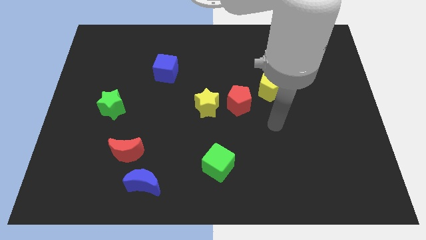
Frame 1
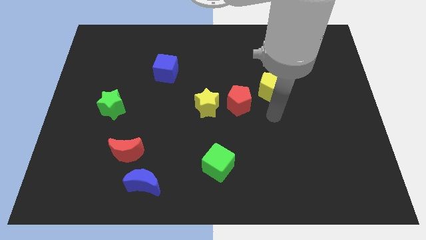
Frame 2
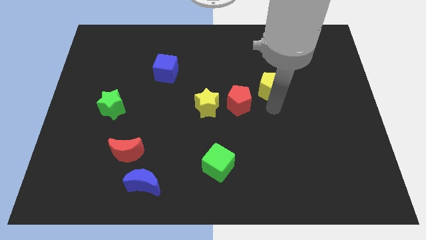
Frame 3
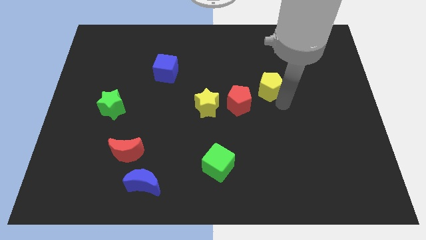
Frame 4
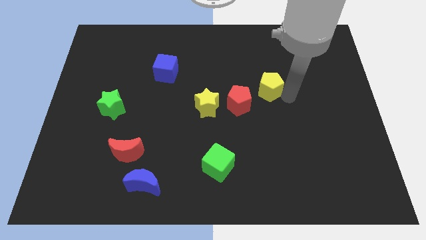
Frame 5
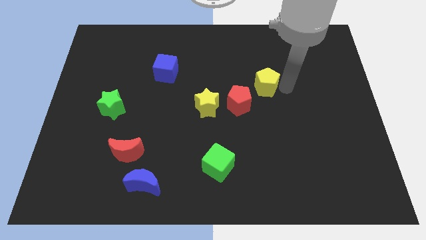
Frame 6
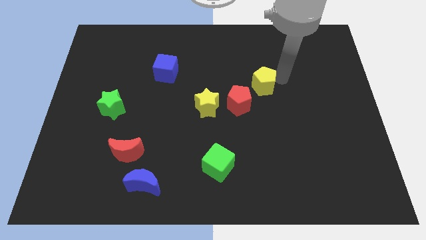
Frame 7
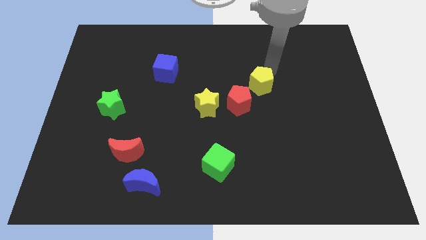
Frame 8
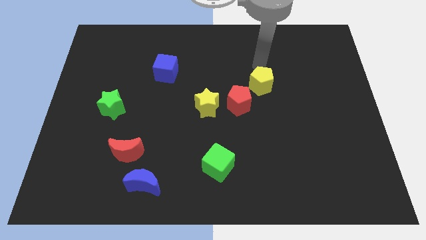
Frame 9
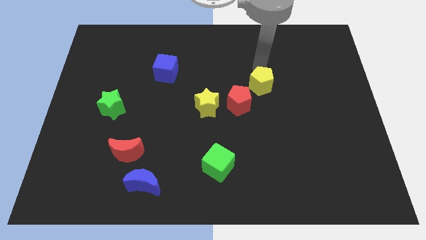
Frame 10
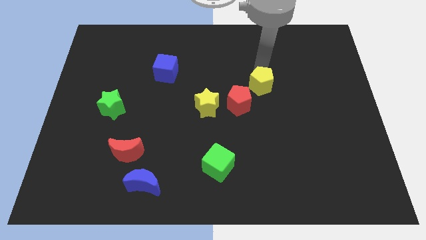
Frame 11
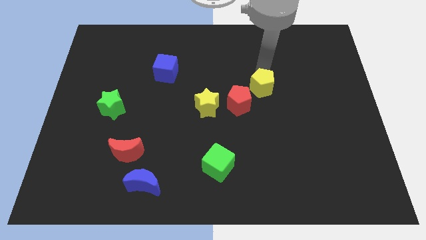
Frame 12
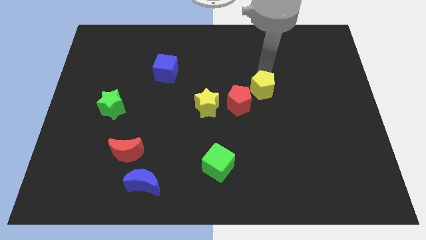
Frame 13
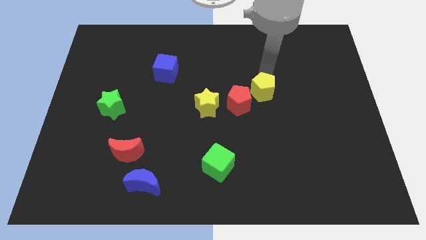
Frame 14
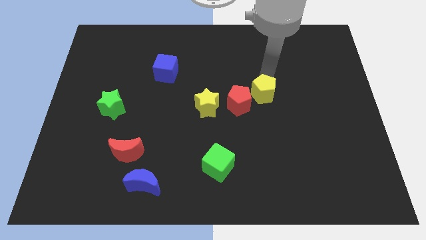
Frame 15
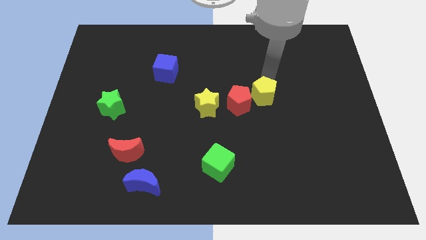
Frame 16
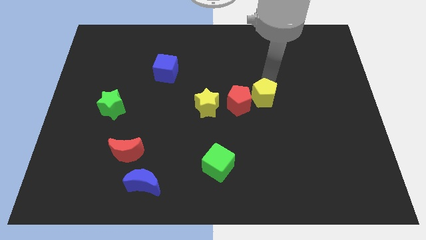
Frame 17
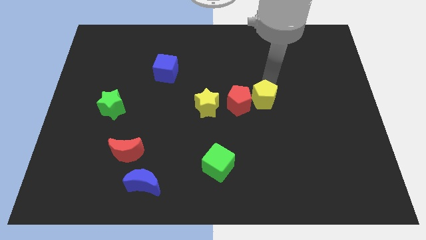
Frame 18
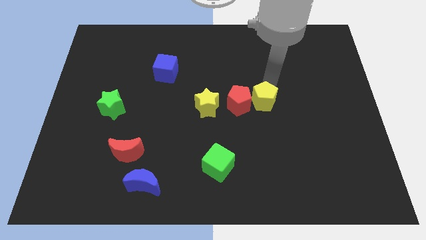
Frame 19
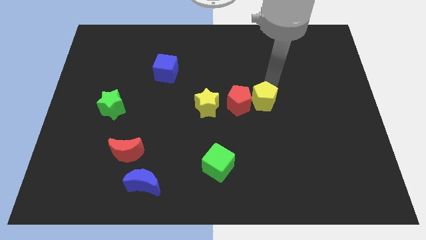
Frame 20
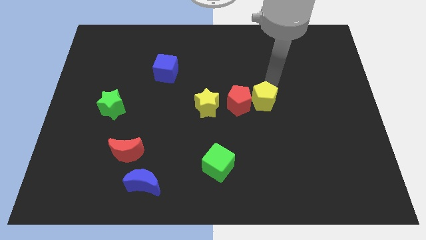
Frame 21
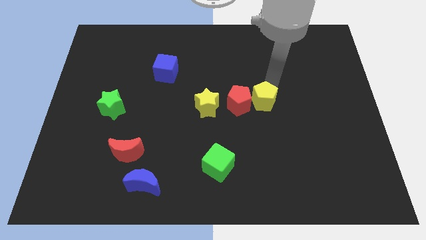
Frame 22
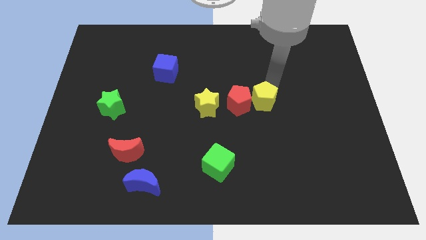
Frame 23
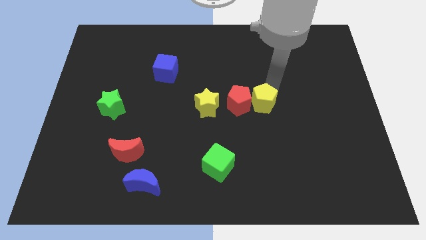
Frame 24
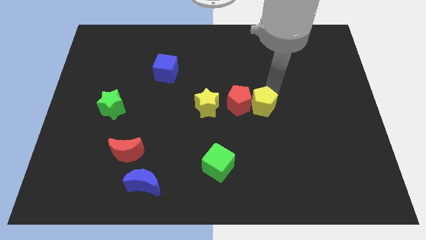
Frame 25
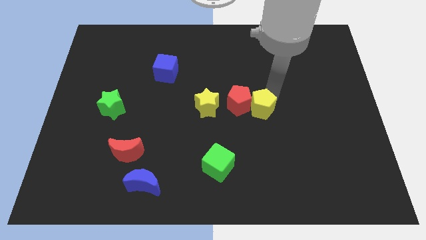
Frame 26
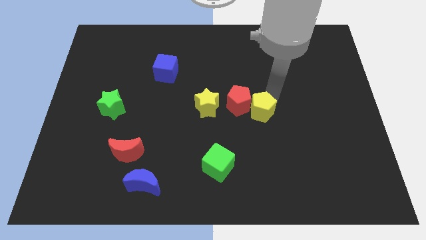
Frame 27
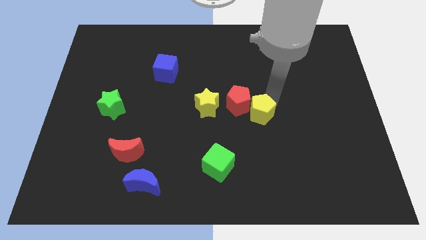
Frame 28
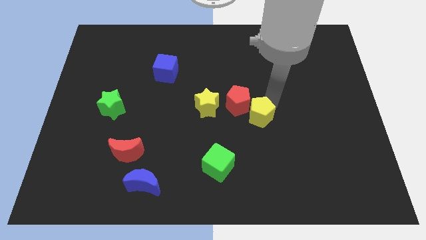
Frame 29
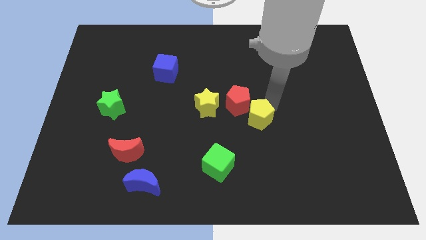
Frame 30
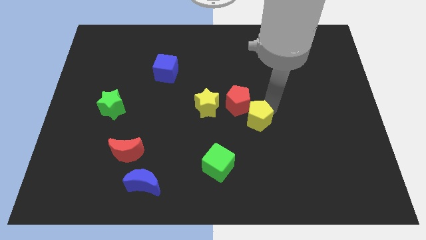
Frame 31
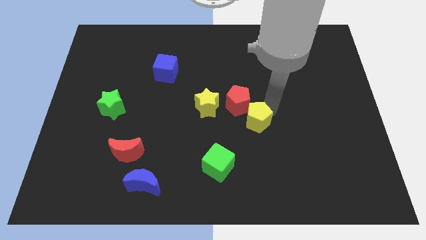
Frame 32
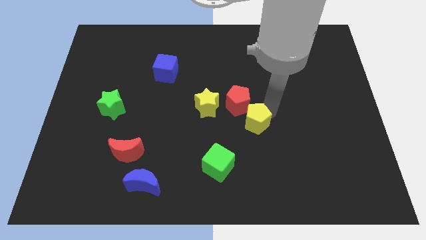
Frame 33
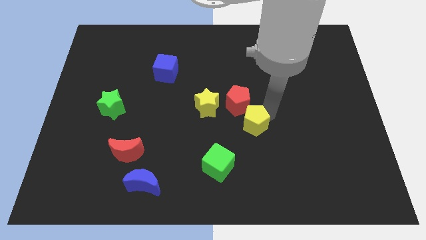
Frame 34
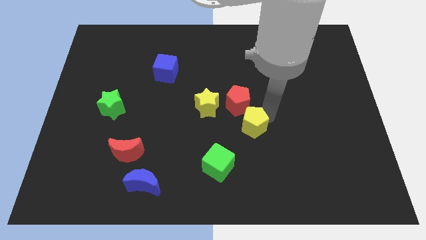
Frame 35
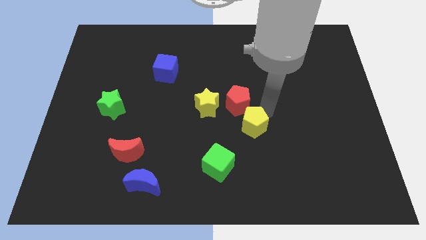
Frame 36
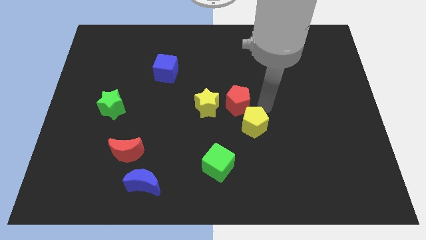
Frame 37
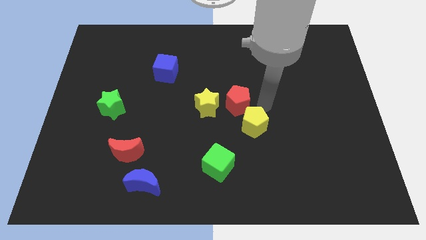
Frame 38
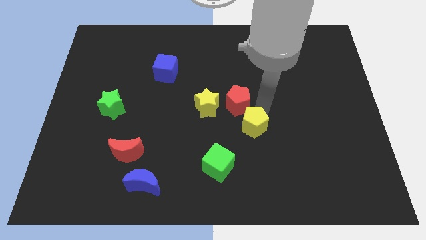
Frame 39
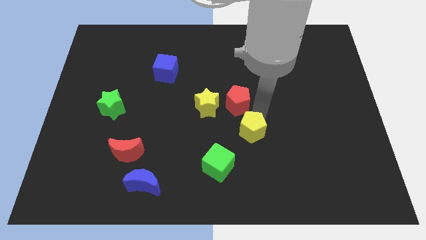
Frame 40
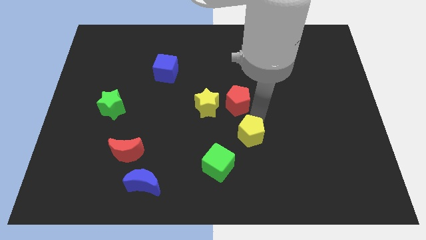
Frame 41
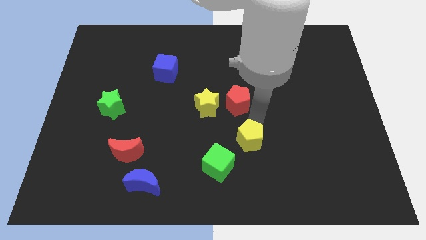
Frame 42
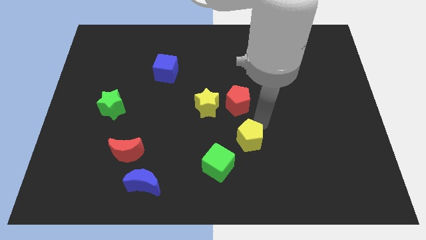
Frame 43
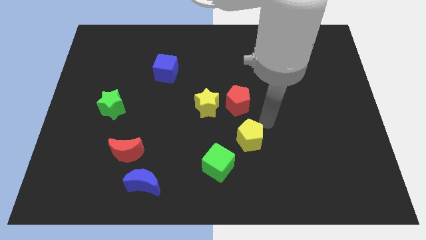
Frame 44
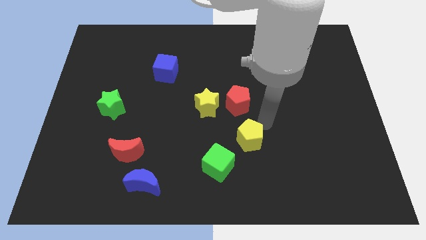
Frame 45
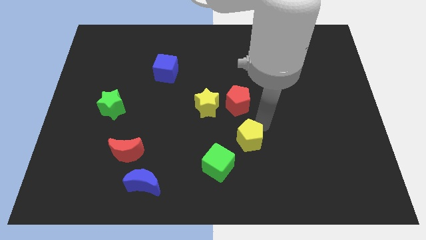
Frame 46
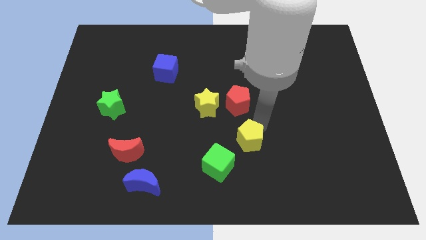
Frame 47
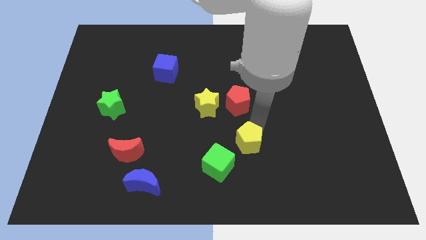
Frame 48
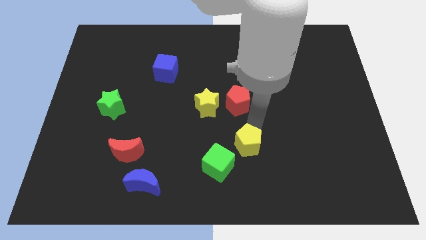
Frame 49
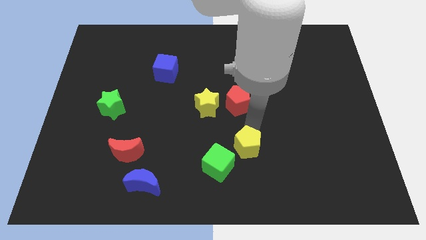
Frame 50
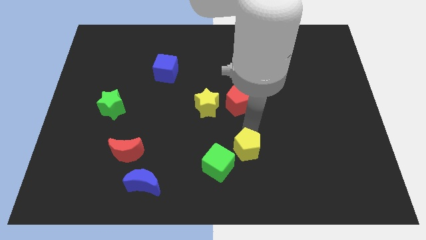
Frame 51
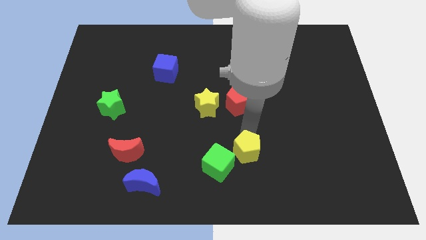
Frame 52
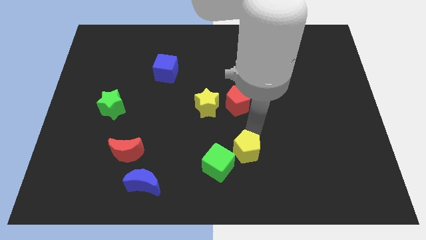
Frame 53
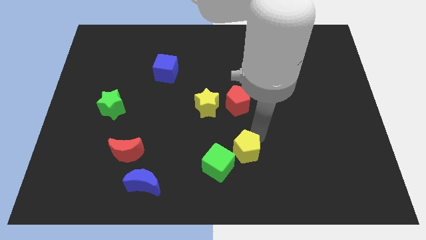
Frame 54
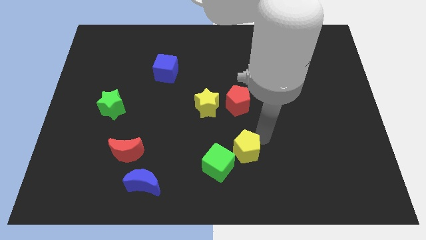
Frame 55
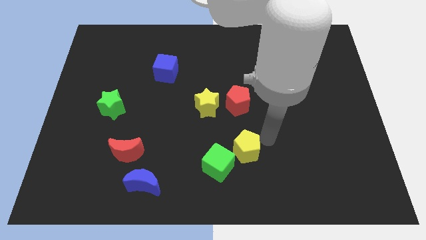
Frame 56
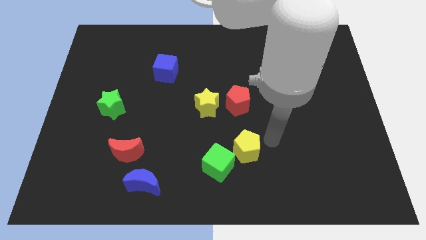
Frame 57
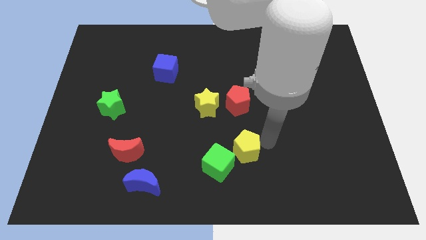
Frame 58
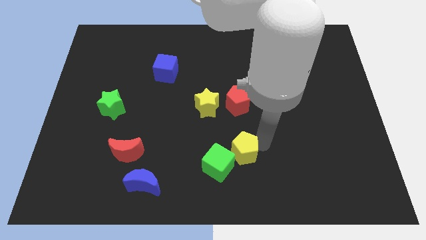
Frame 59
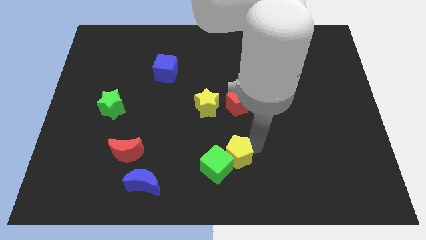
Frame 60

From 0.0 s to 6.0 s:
slide the yellow pentagon next to the green cube

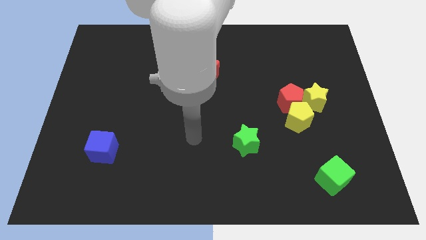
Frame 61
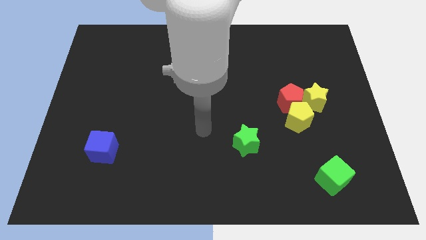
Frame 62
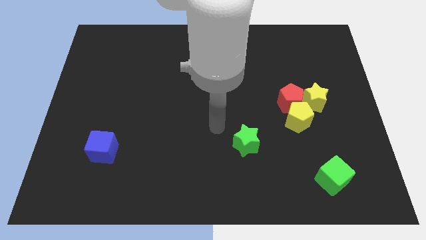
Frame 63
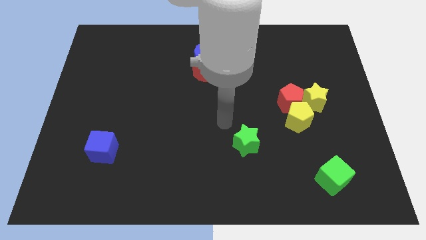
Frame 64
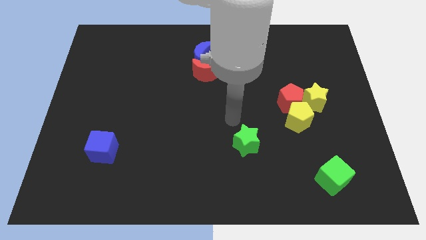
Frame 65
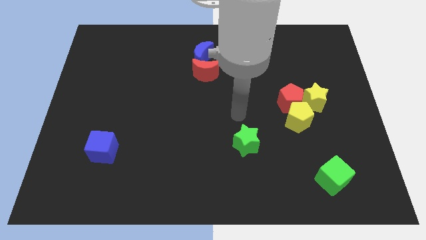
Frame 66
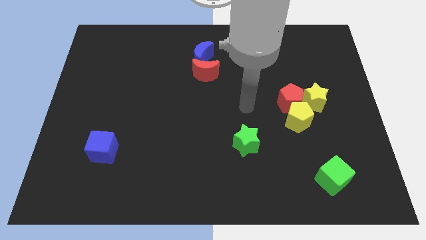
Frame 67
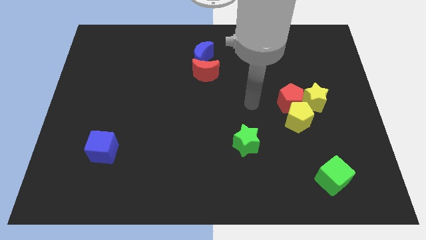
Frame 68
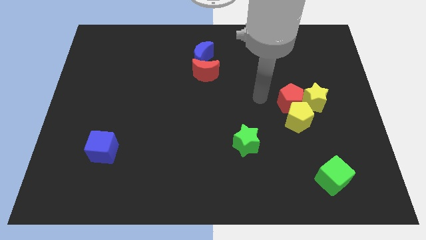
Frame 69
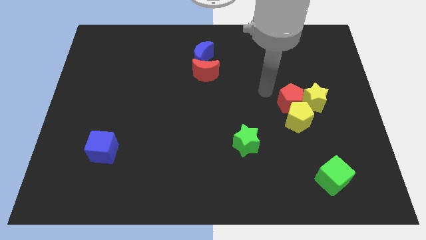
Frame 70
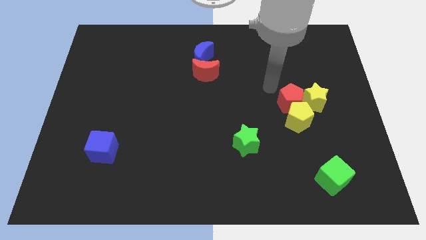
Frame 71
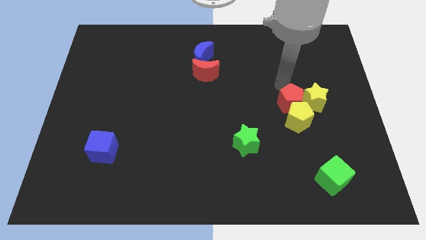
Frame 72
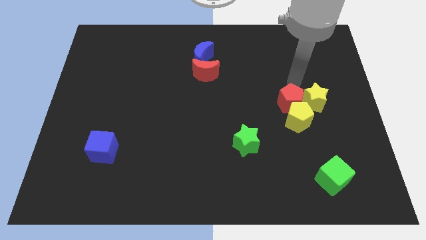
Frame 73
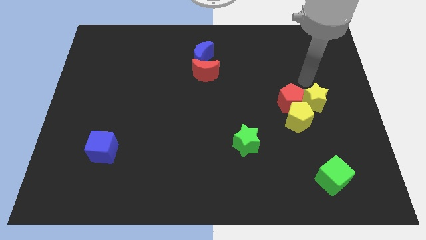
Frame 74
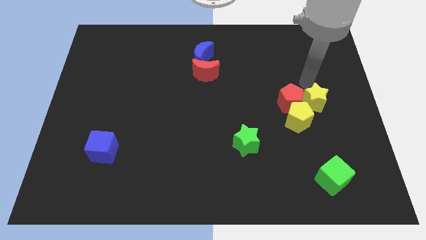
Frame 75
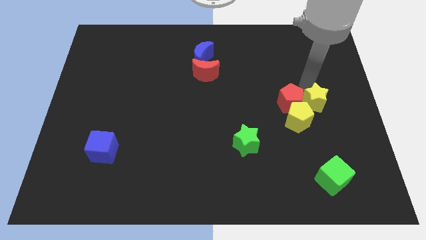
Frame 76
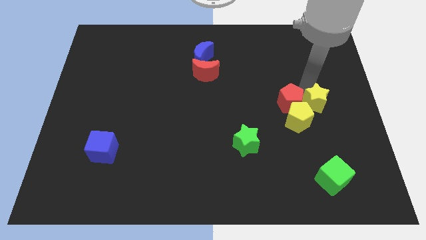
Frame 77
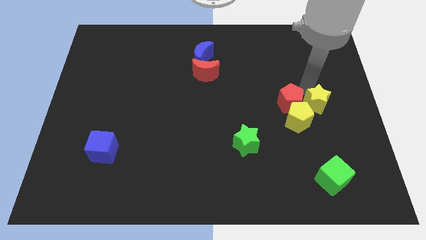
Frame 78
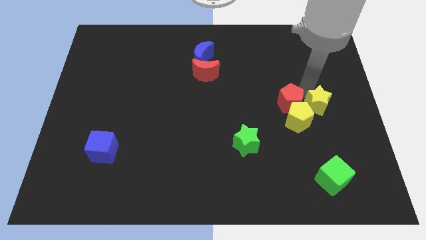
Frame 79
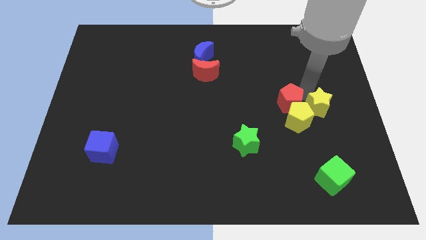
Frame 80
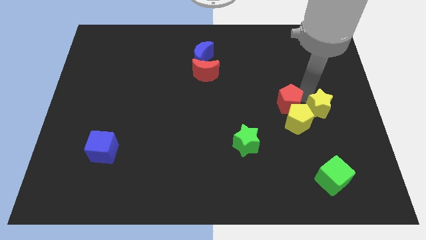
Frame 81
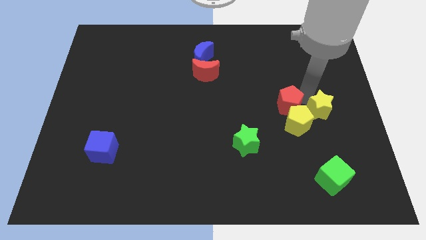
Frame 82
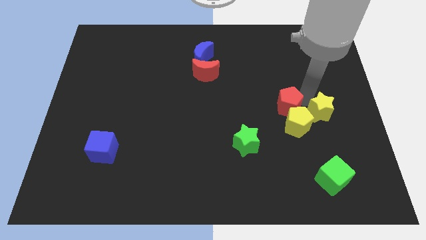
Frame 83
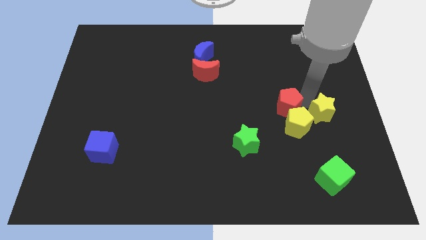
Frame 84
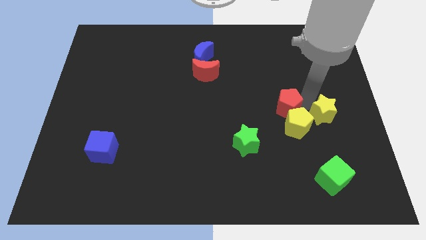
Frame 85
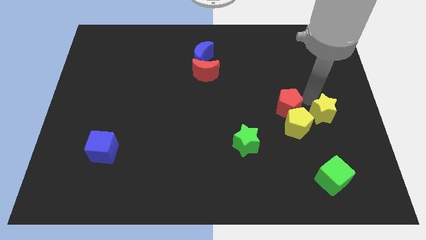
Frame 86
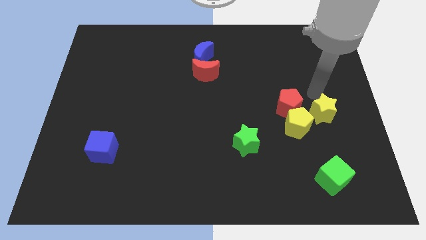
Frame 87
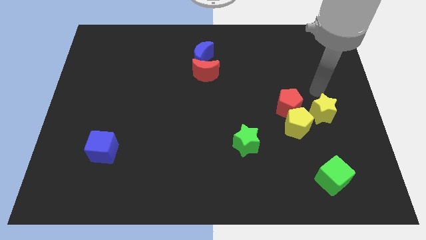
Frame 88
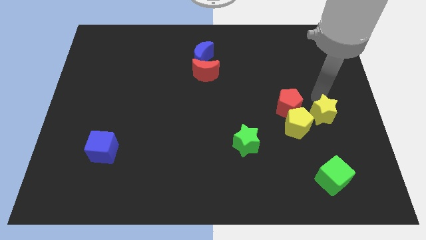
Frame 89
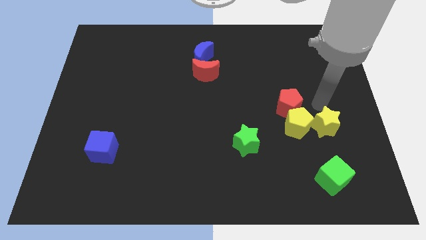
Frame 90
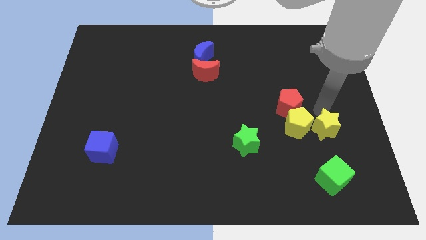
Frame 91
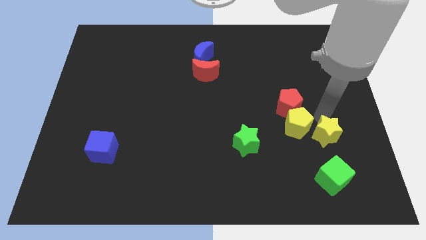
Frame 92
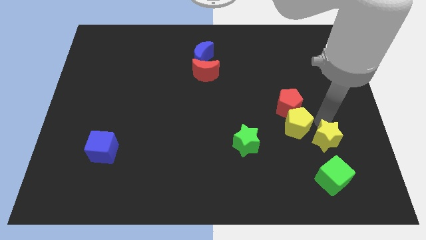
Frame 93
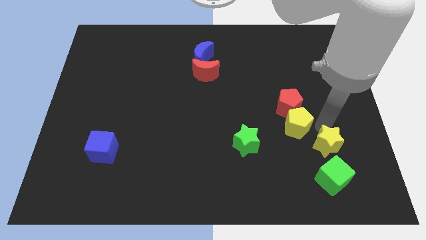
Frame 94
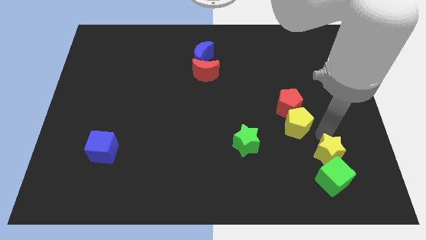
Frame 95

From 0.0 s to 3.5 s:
put the yellow star towards the green cube
